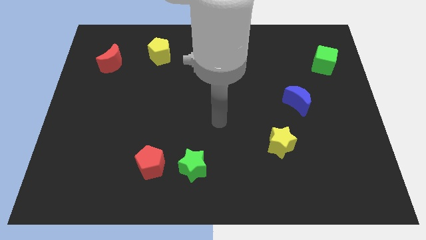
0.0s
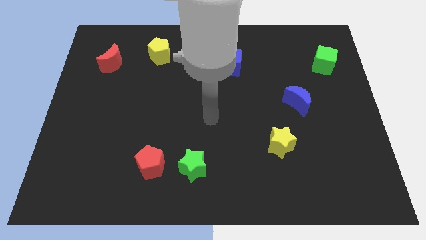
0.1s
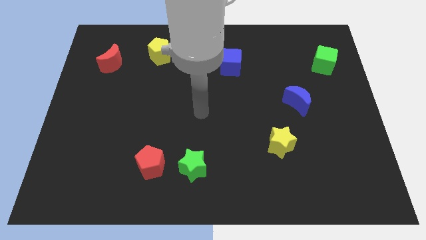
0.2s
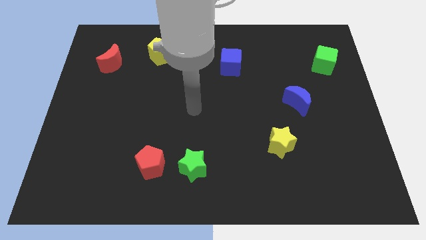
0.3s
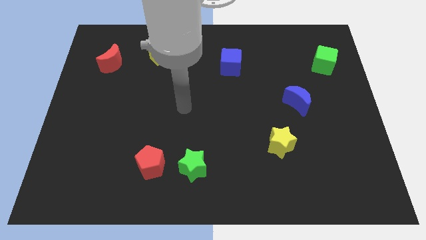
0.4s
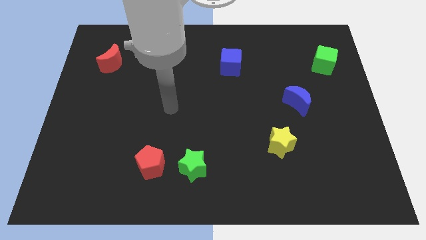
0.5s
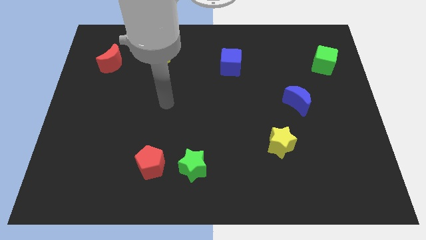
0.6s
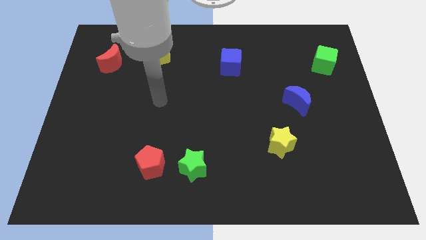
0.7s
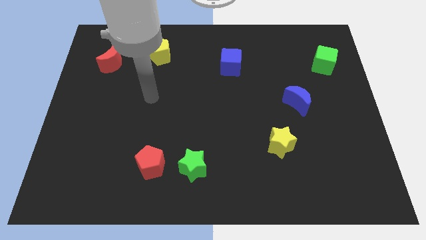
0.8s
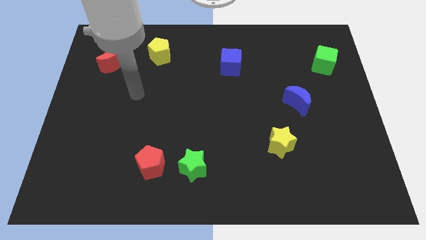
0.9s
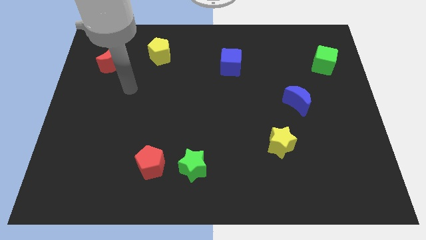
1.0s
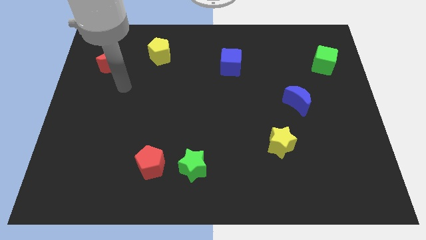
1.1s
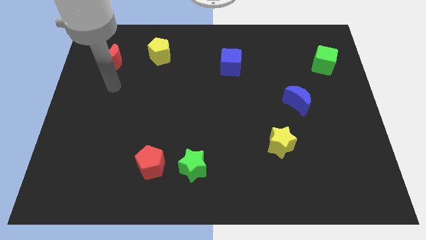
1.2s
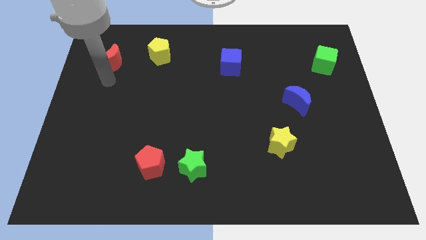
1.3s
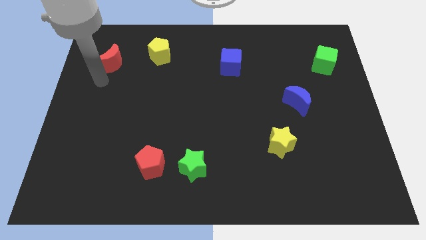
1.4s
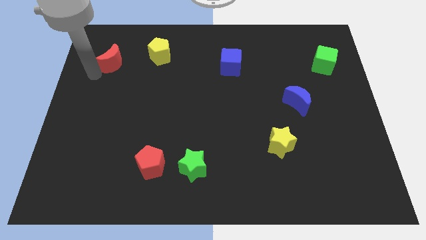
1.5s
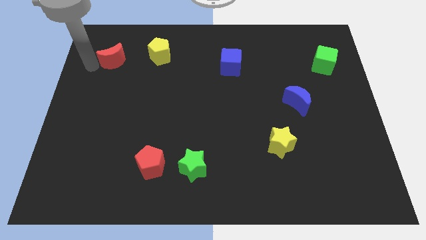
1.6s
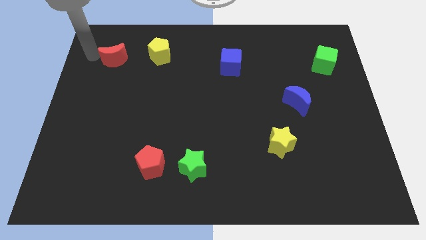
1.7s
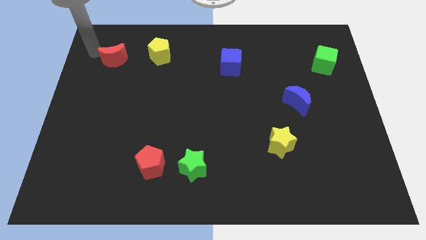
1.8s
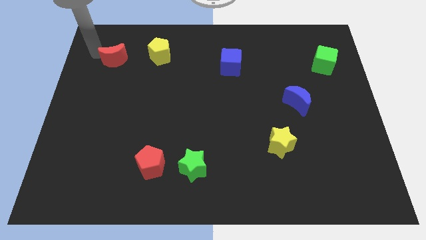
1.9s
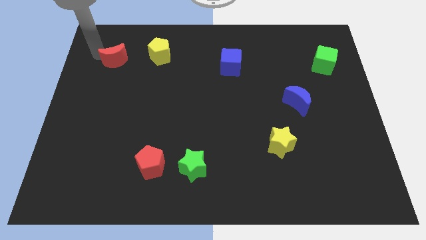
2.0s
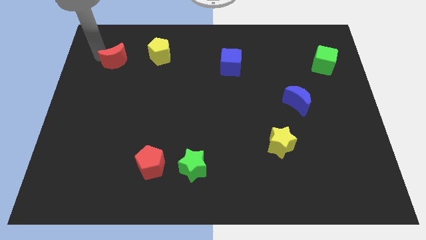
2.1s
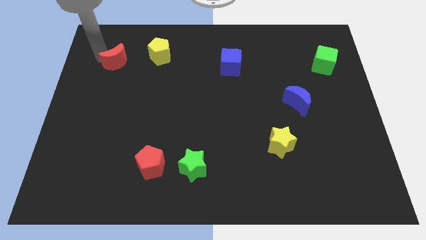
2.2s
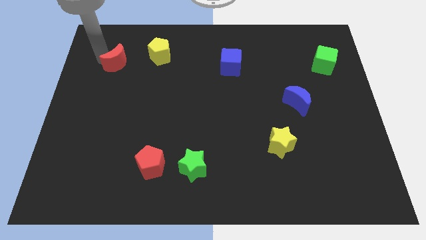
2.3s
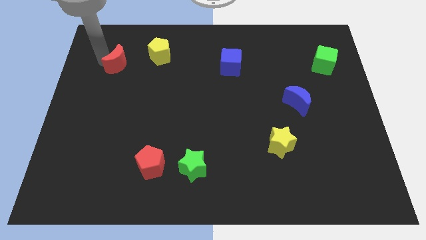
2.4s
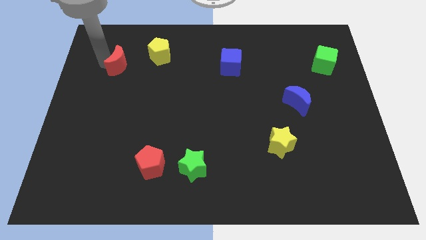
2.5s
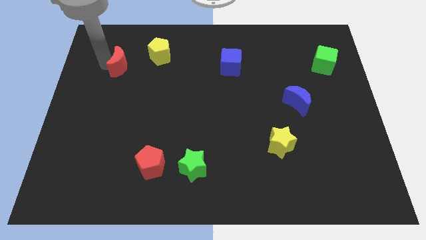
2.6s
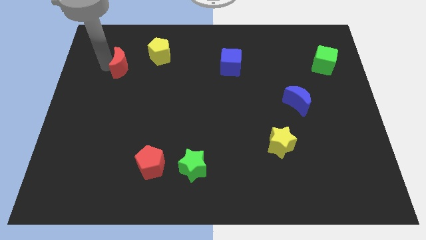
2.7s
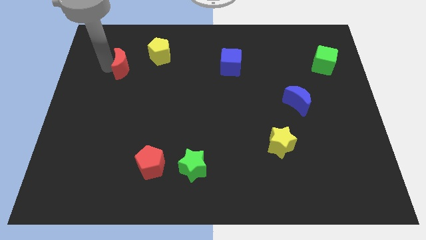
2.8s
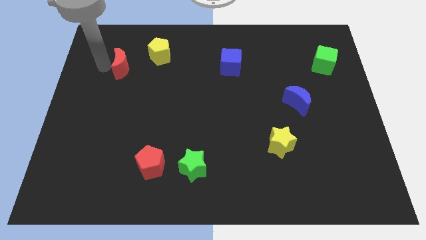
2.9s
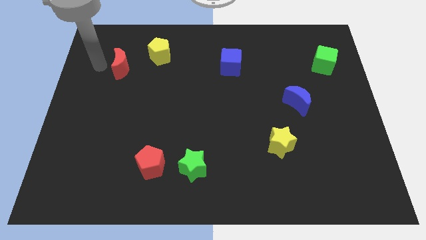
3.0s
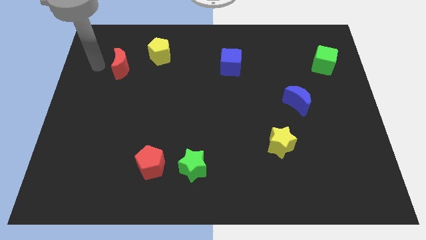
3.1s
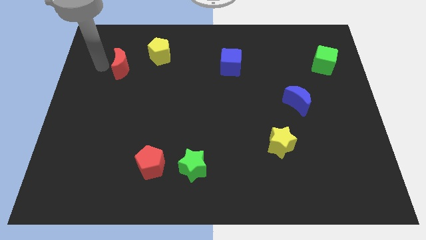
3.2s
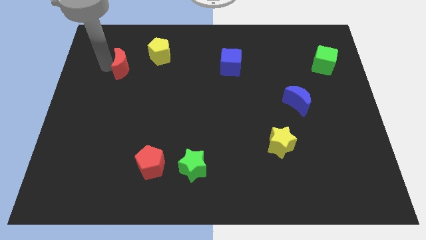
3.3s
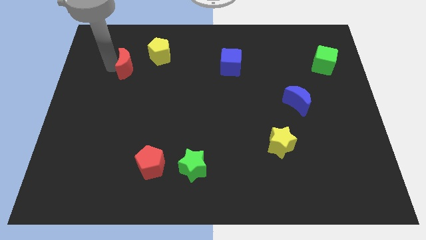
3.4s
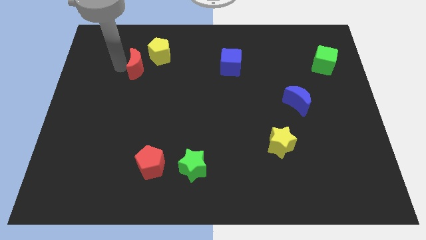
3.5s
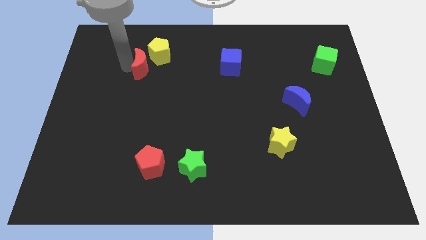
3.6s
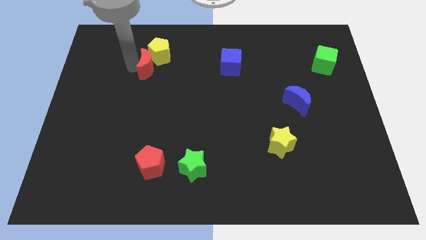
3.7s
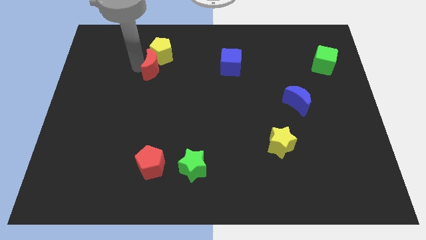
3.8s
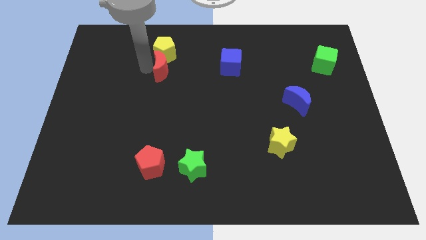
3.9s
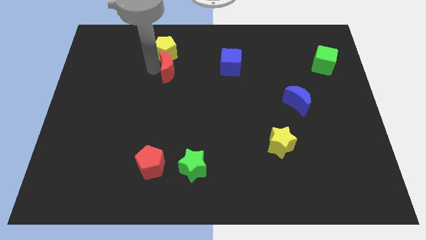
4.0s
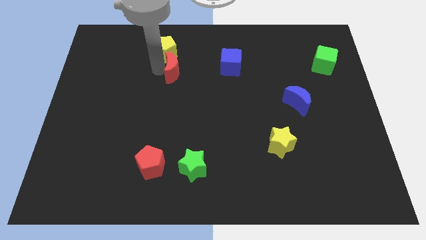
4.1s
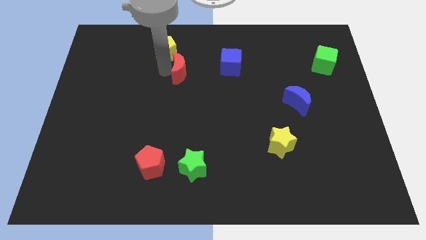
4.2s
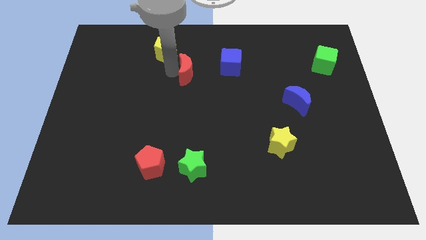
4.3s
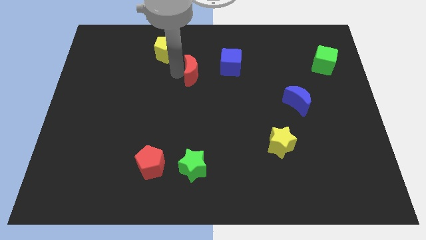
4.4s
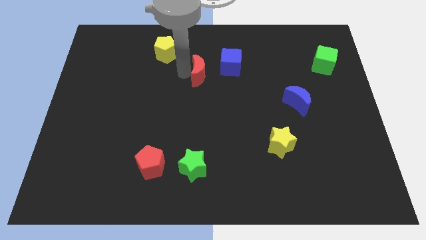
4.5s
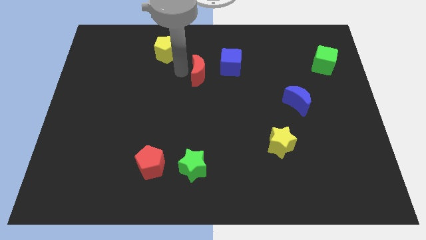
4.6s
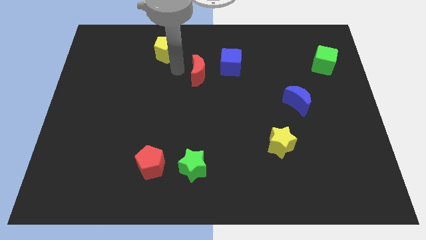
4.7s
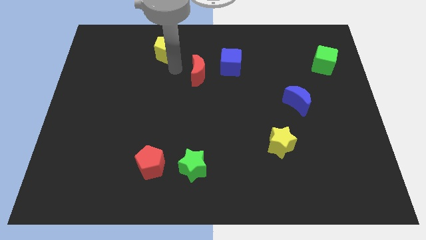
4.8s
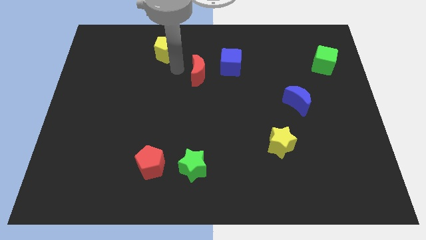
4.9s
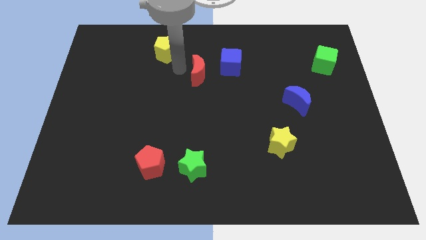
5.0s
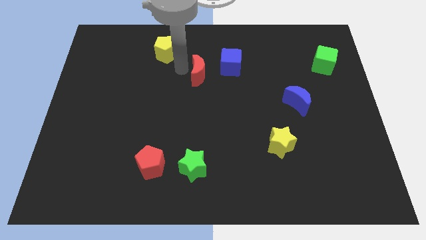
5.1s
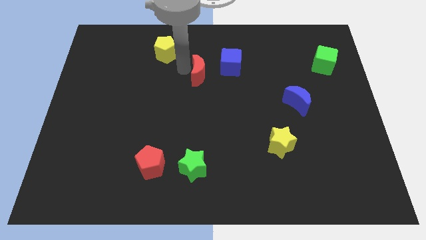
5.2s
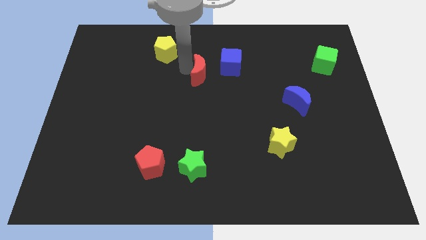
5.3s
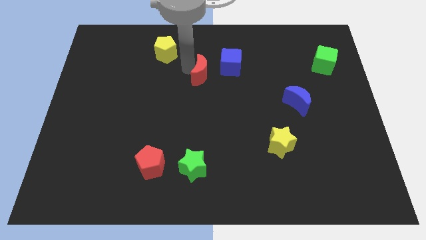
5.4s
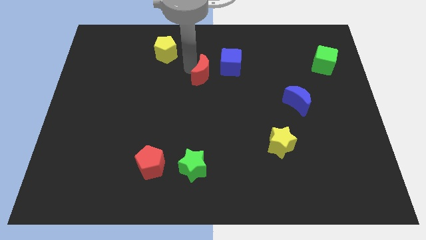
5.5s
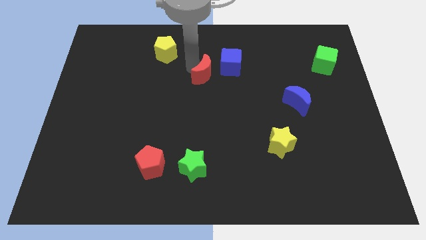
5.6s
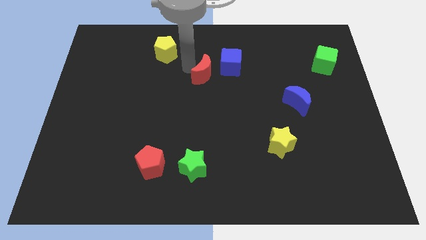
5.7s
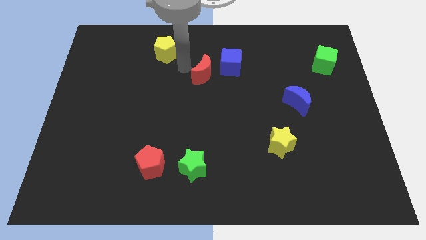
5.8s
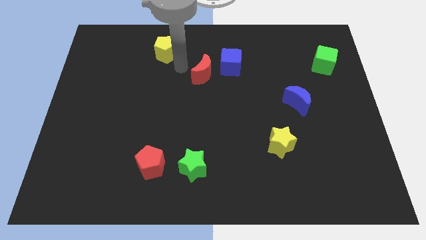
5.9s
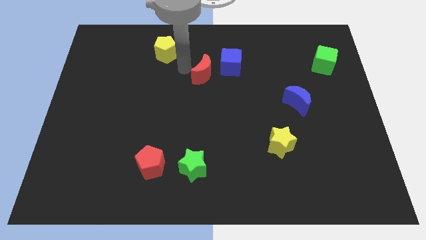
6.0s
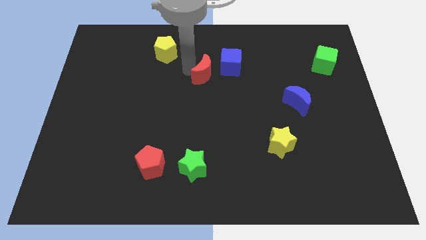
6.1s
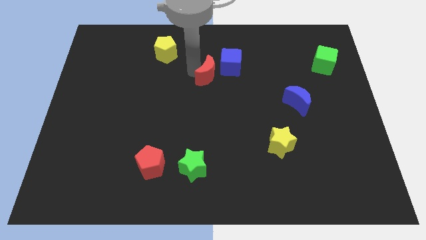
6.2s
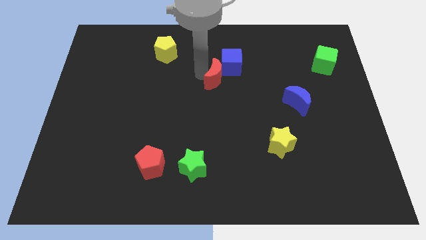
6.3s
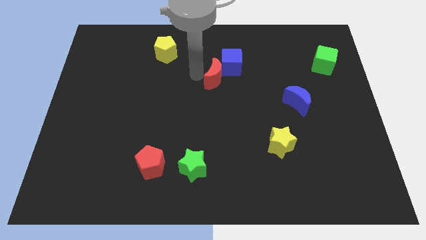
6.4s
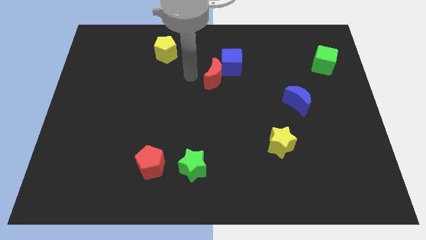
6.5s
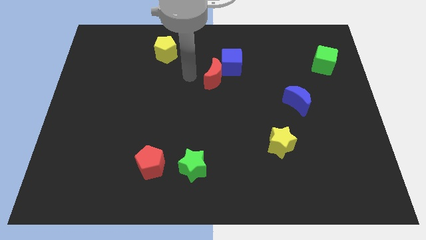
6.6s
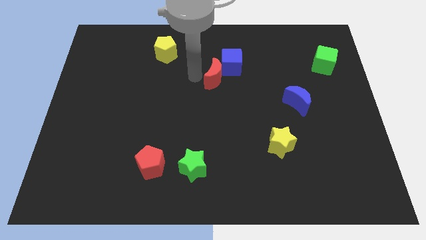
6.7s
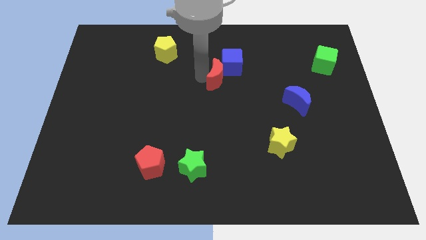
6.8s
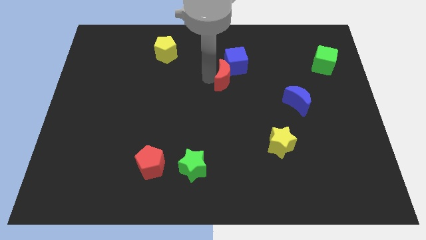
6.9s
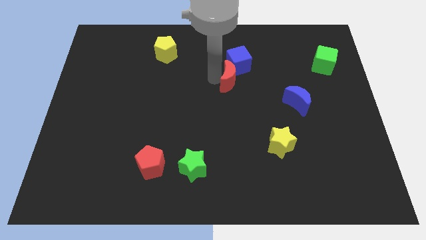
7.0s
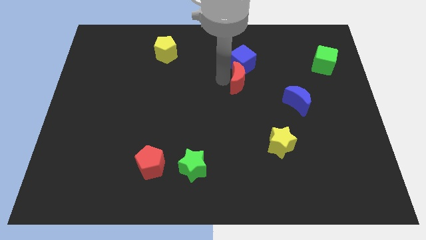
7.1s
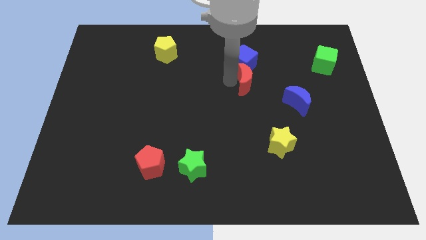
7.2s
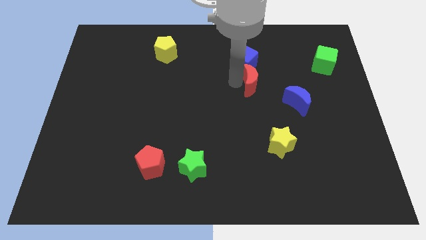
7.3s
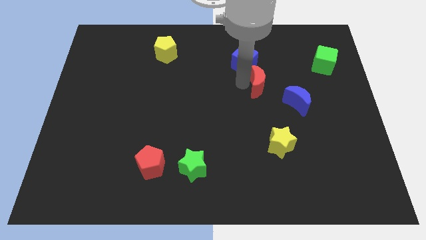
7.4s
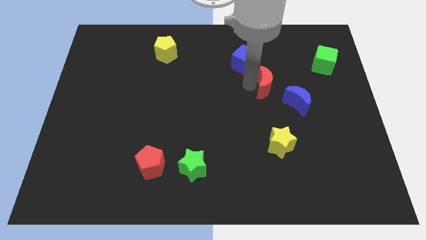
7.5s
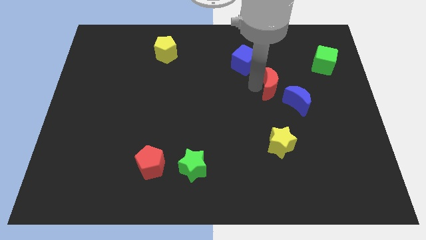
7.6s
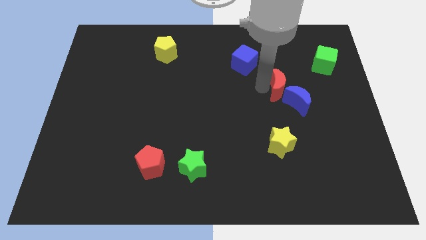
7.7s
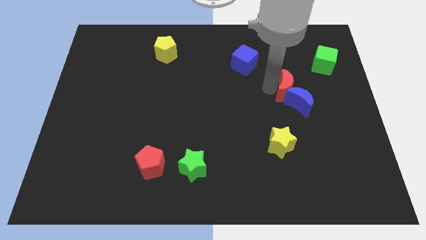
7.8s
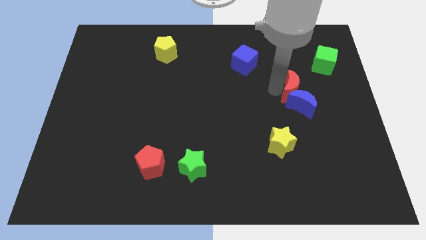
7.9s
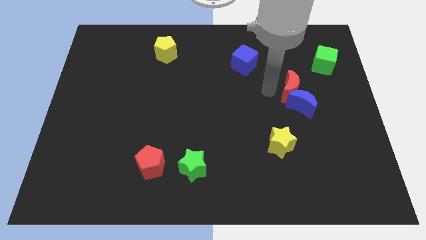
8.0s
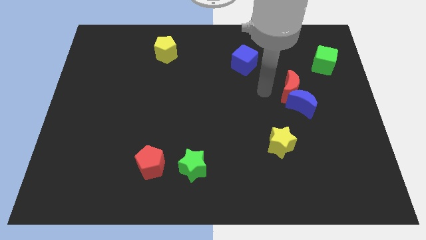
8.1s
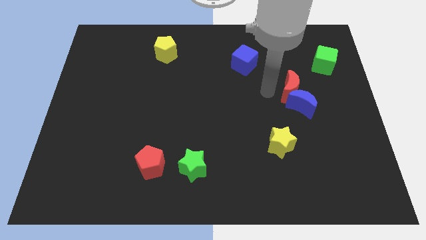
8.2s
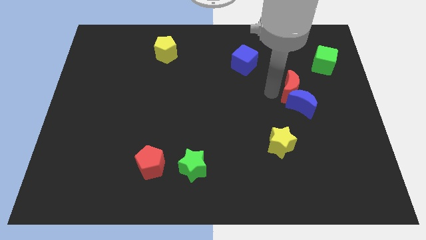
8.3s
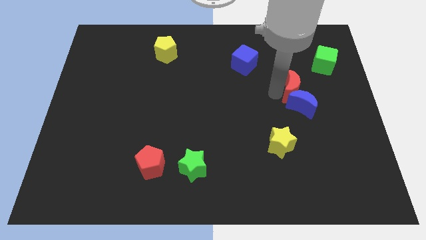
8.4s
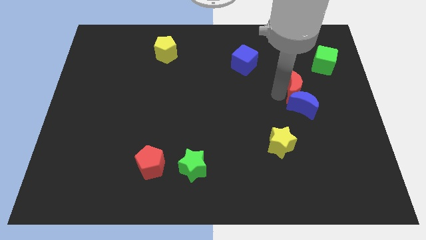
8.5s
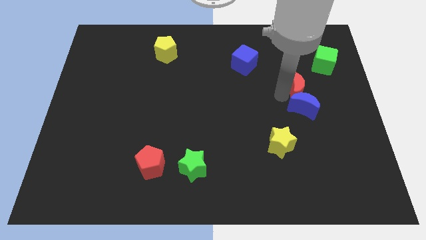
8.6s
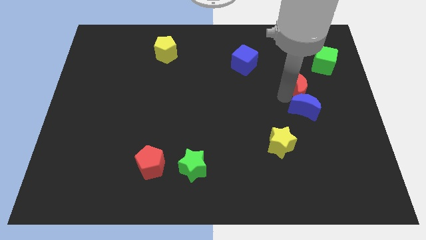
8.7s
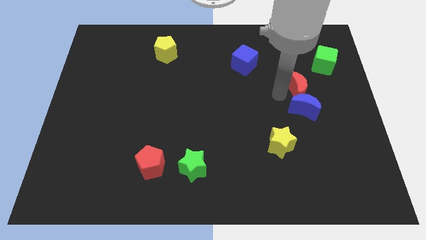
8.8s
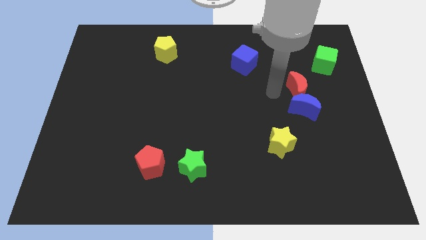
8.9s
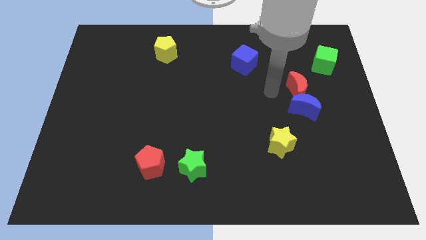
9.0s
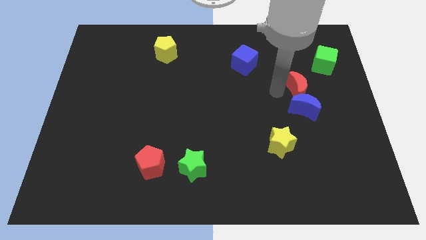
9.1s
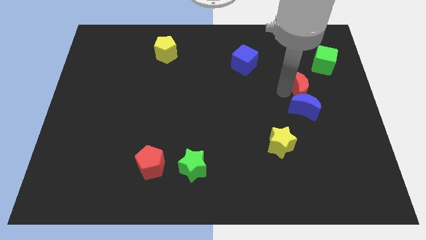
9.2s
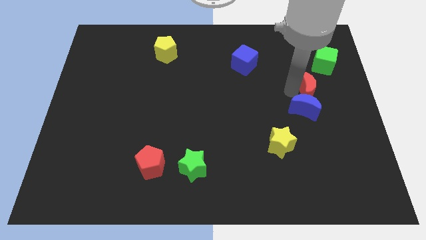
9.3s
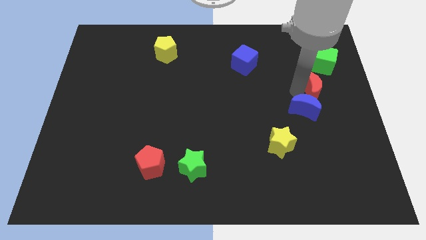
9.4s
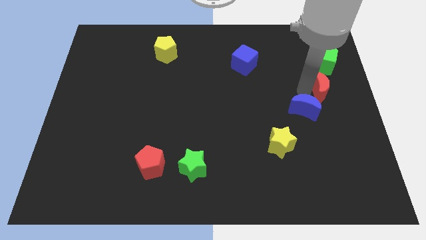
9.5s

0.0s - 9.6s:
slide the red moon to the right side of the board
